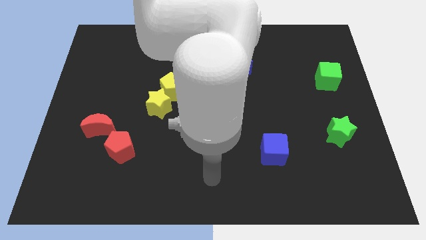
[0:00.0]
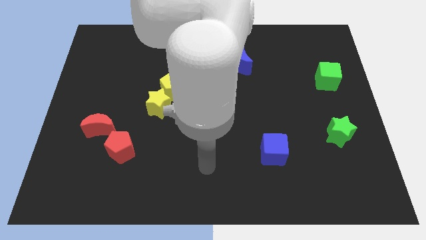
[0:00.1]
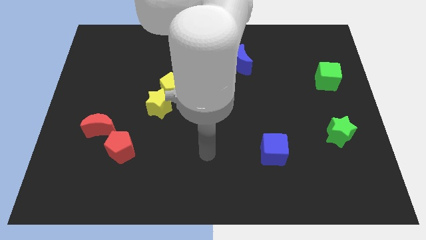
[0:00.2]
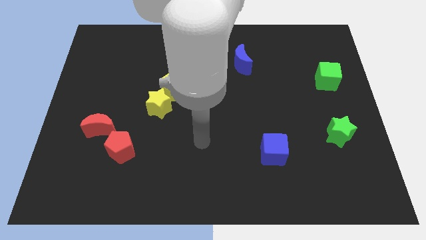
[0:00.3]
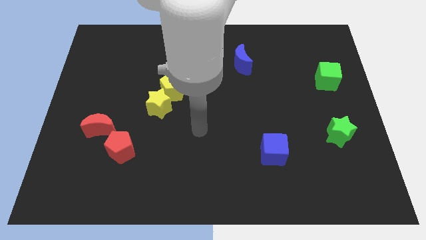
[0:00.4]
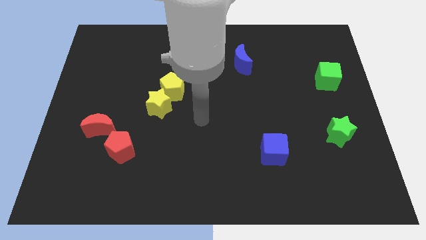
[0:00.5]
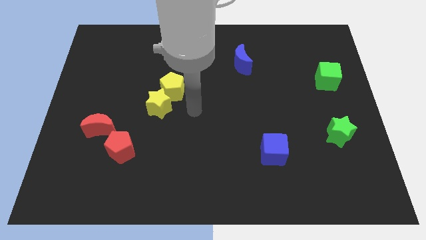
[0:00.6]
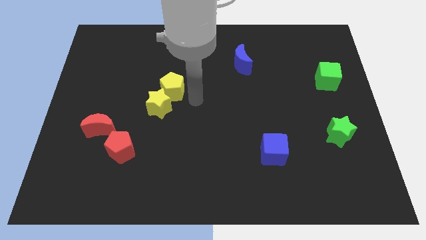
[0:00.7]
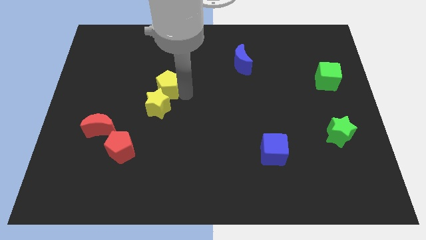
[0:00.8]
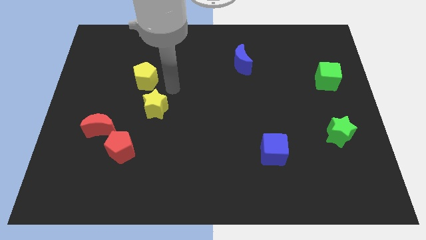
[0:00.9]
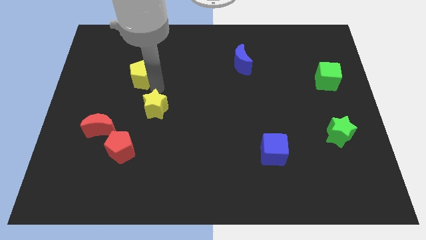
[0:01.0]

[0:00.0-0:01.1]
separate the yellow star from the yellow pentagon

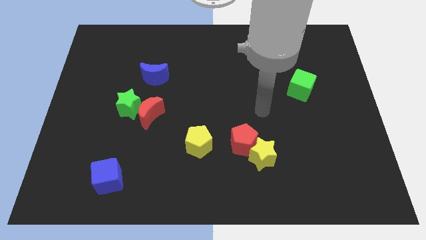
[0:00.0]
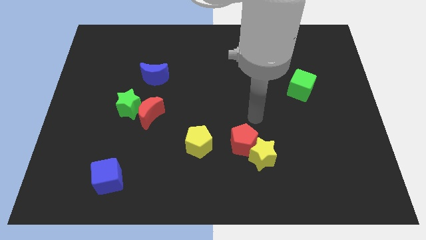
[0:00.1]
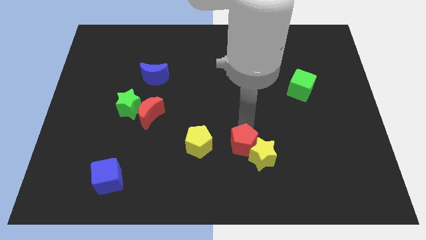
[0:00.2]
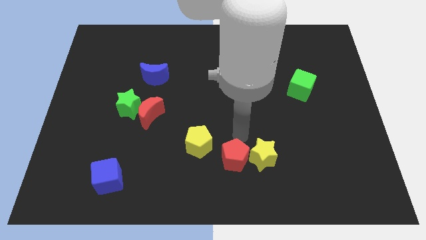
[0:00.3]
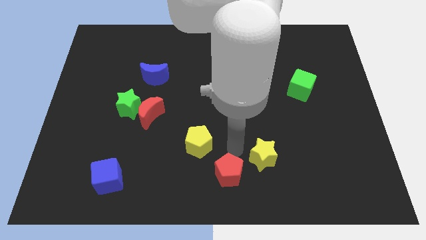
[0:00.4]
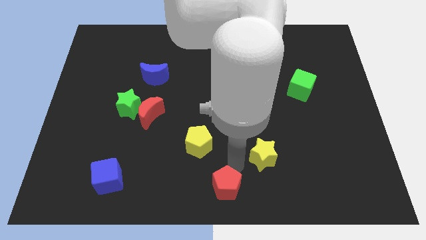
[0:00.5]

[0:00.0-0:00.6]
separate the yellow star from the red pentagon

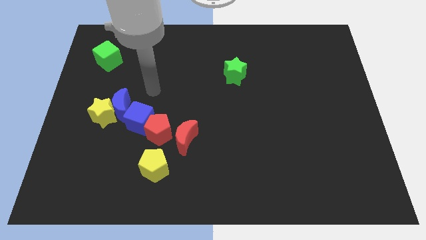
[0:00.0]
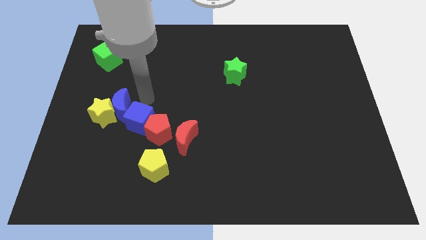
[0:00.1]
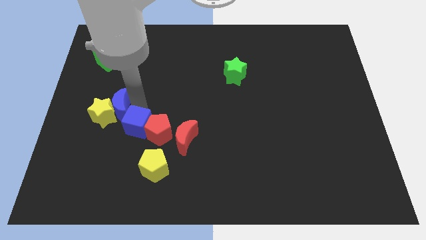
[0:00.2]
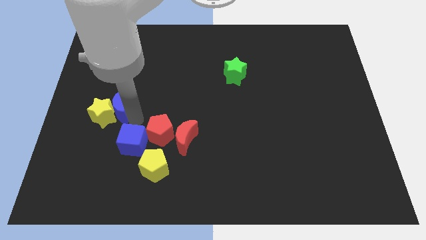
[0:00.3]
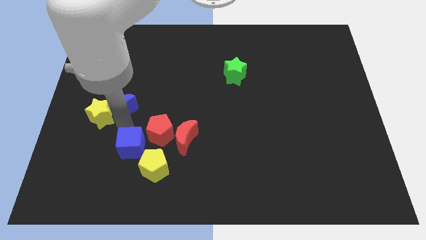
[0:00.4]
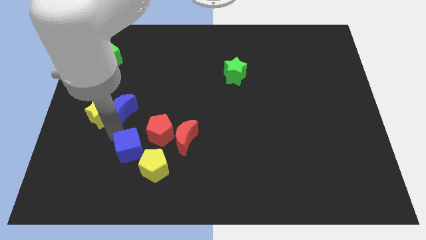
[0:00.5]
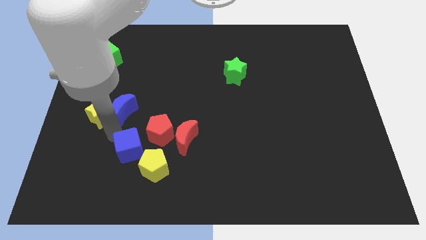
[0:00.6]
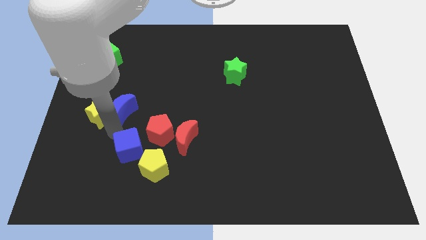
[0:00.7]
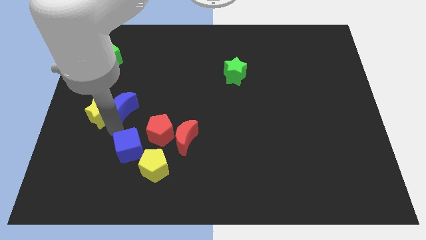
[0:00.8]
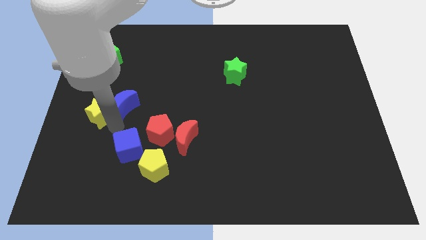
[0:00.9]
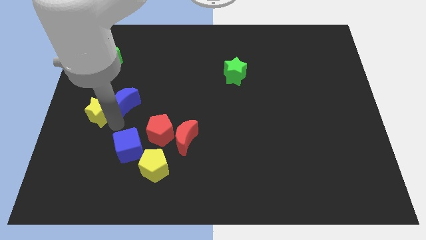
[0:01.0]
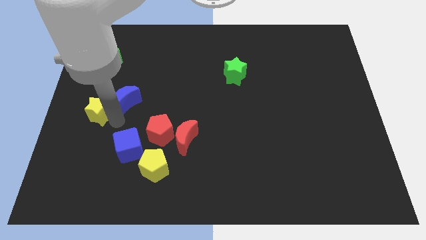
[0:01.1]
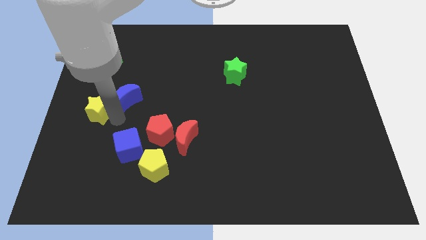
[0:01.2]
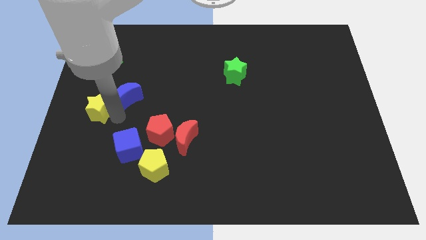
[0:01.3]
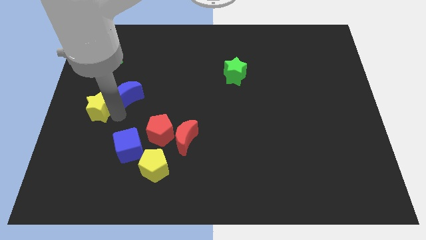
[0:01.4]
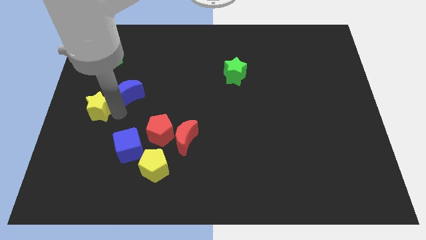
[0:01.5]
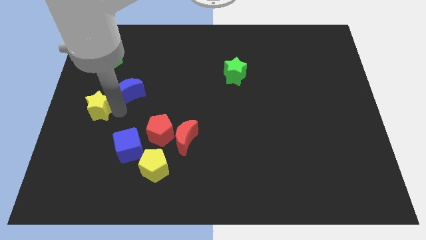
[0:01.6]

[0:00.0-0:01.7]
separate the blue moon from the yellow star and blue cube

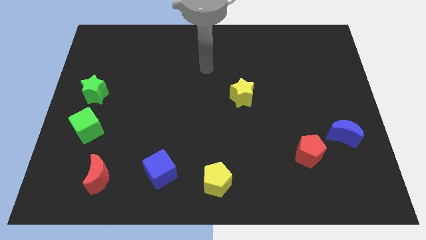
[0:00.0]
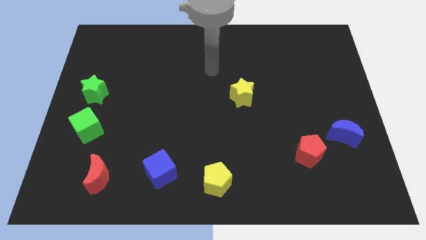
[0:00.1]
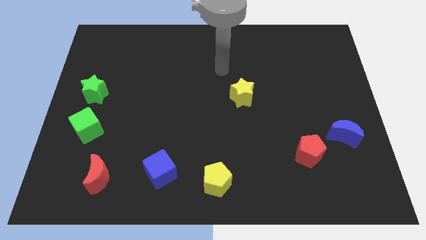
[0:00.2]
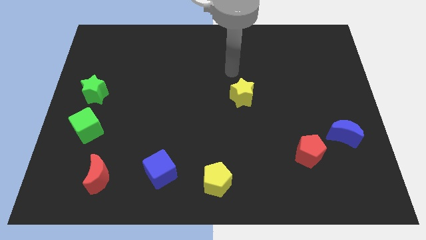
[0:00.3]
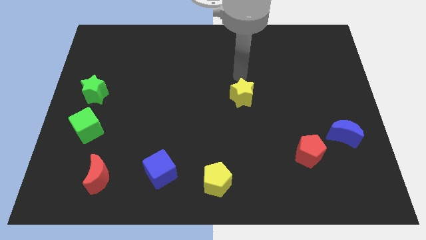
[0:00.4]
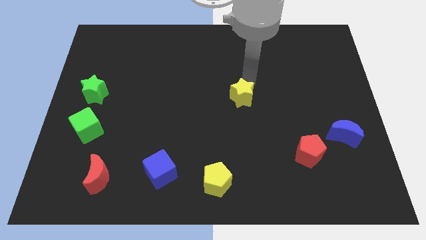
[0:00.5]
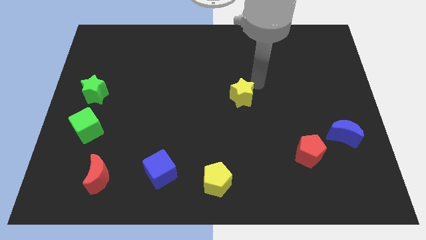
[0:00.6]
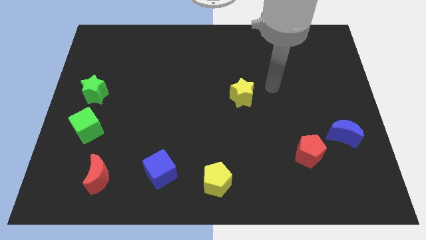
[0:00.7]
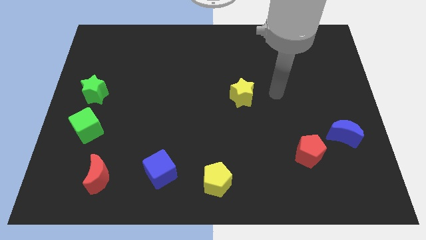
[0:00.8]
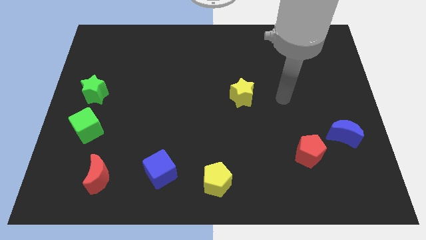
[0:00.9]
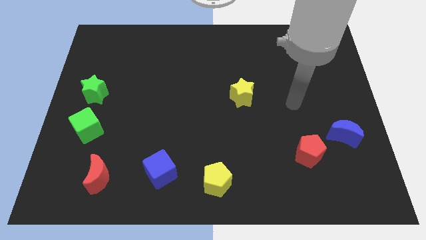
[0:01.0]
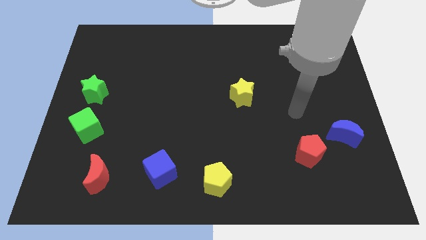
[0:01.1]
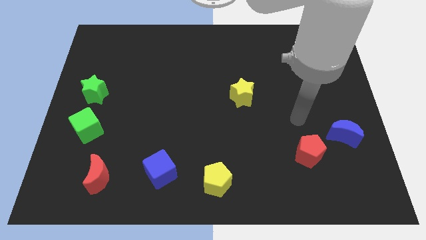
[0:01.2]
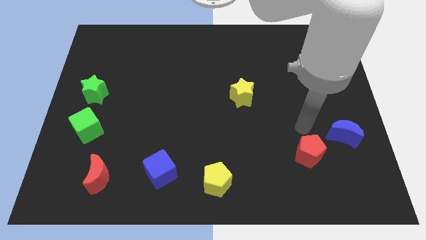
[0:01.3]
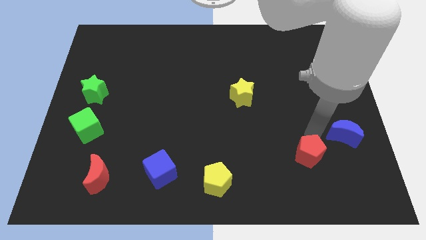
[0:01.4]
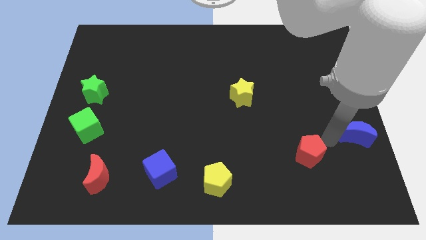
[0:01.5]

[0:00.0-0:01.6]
pull the red pentagon apart from the blue moon

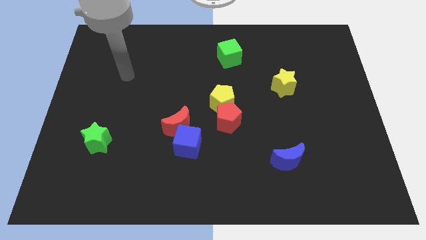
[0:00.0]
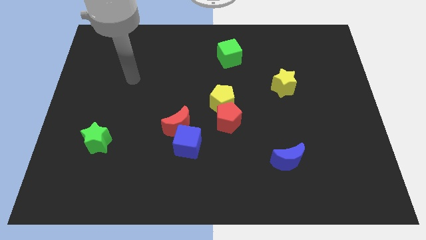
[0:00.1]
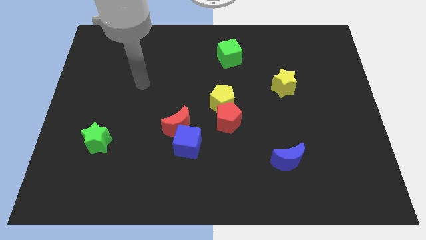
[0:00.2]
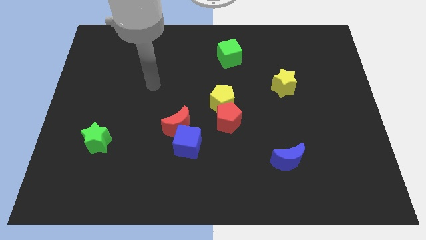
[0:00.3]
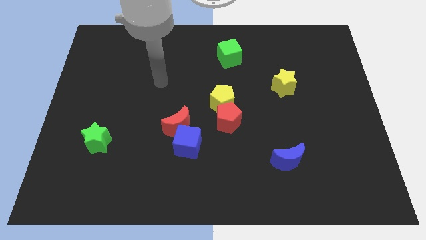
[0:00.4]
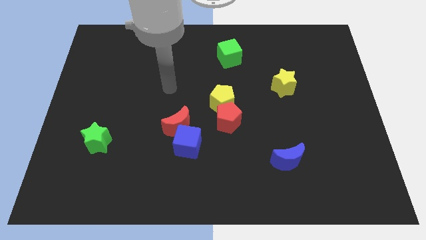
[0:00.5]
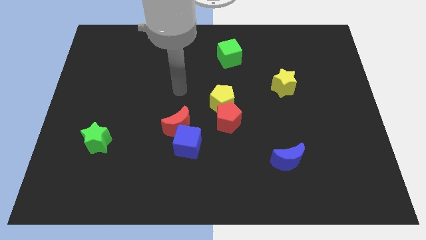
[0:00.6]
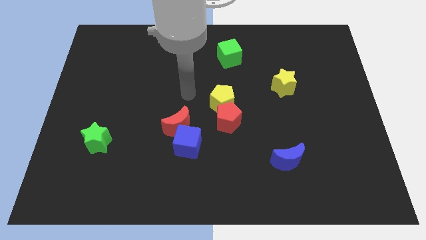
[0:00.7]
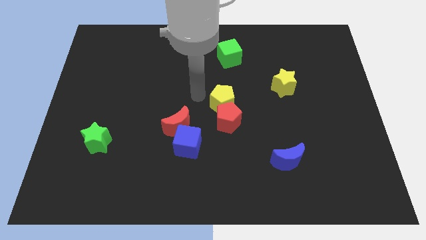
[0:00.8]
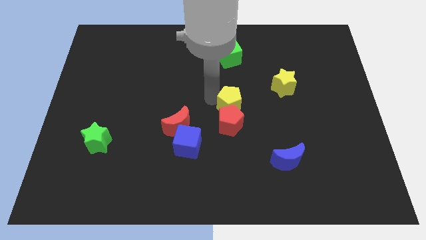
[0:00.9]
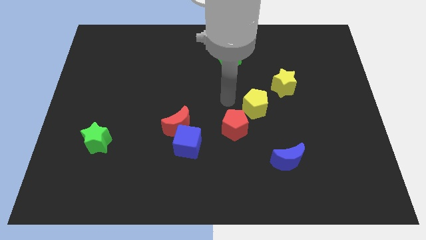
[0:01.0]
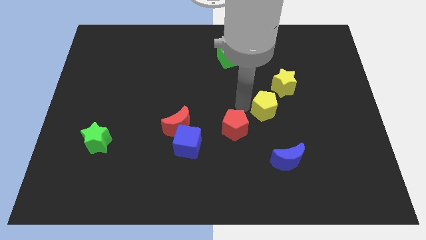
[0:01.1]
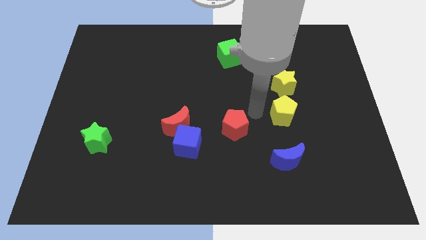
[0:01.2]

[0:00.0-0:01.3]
pull the red pentagon apart from the yellow pentagon

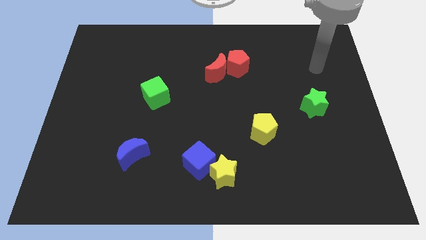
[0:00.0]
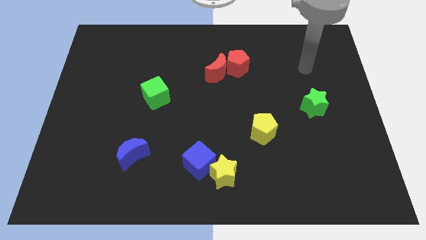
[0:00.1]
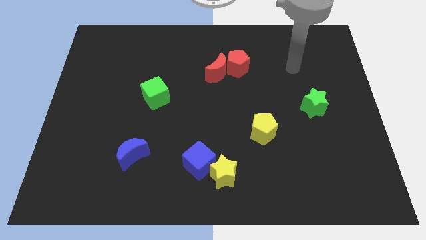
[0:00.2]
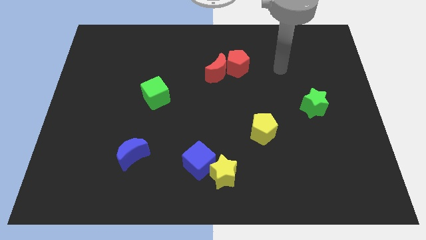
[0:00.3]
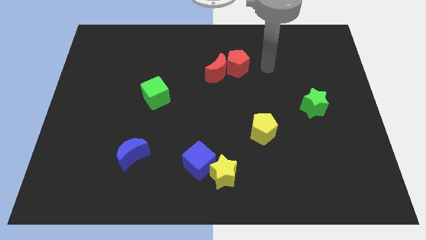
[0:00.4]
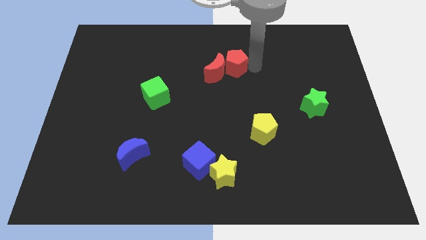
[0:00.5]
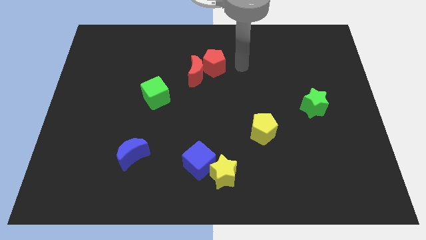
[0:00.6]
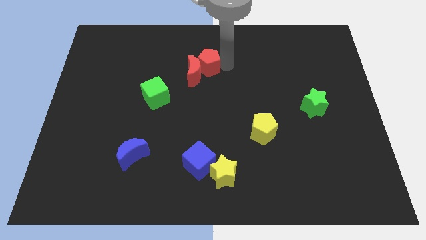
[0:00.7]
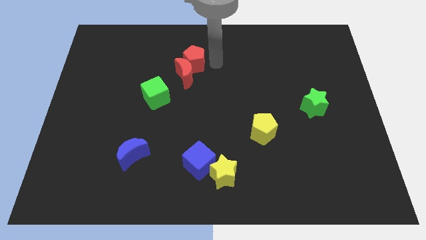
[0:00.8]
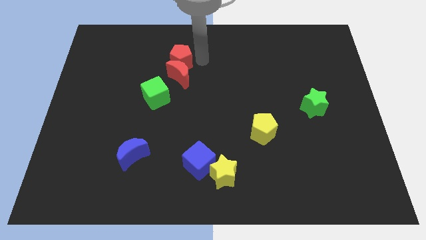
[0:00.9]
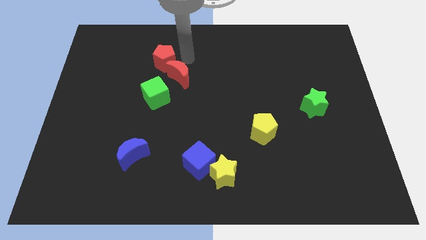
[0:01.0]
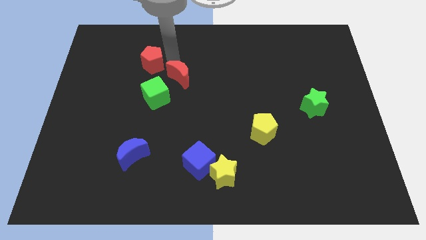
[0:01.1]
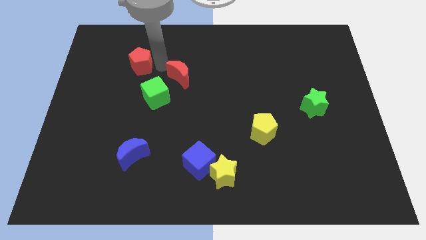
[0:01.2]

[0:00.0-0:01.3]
pull the red moon apart from the red pentagon

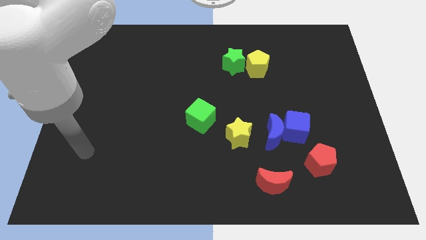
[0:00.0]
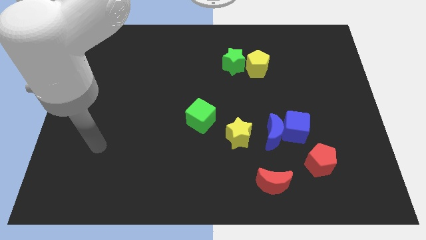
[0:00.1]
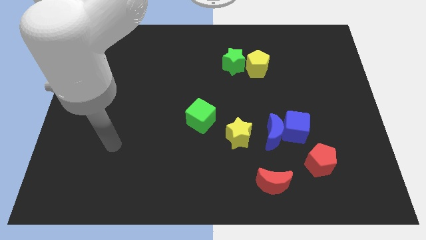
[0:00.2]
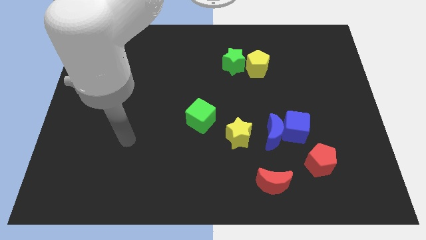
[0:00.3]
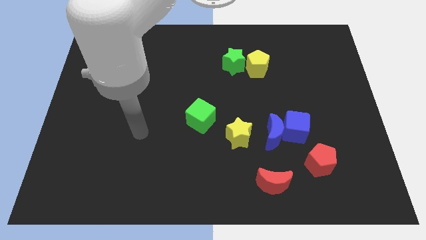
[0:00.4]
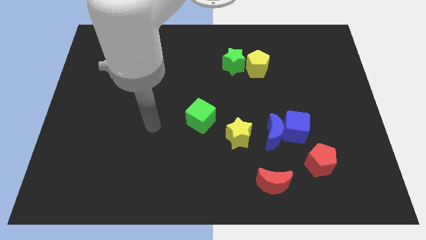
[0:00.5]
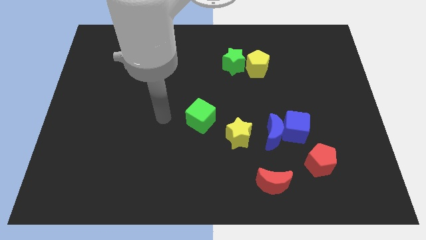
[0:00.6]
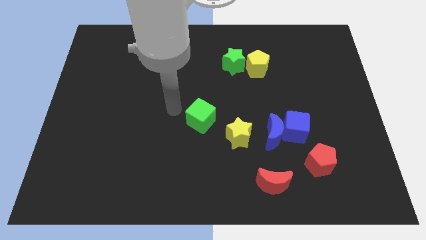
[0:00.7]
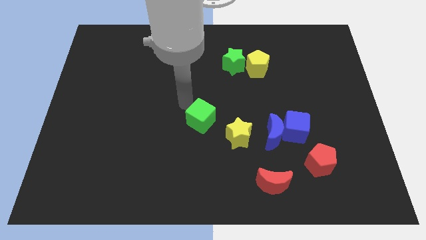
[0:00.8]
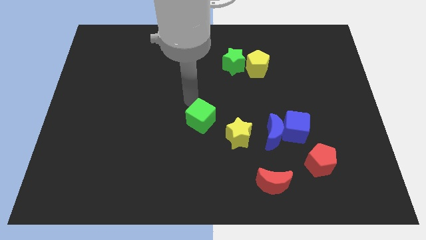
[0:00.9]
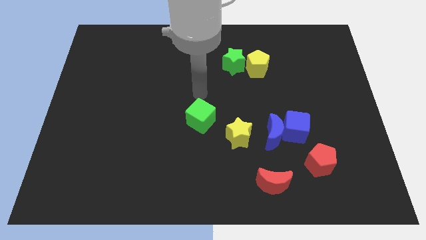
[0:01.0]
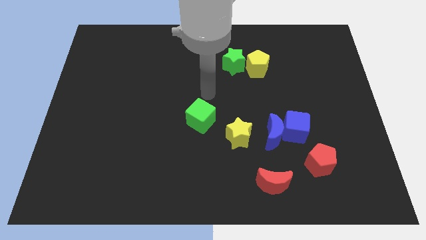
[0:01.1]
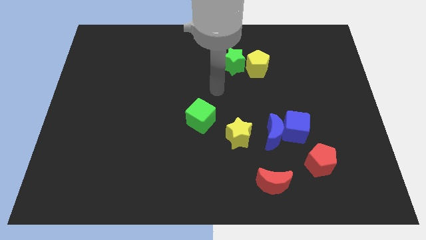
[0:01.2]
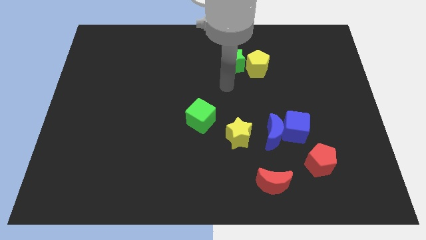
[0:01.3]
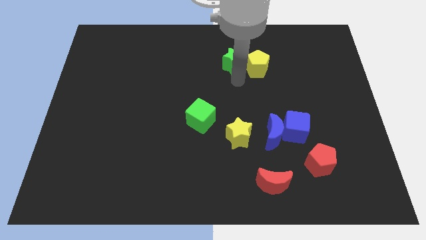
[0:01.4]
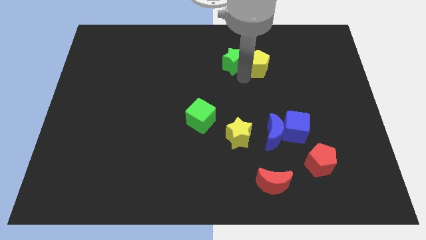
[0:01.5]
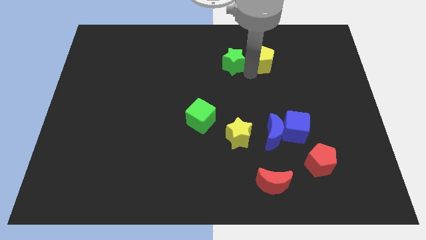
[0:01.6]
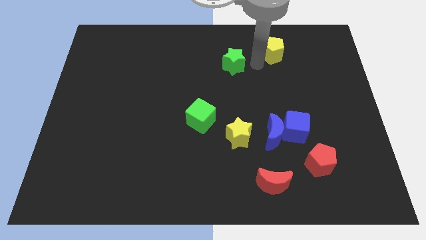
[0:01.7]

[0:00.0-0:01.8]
separate the green star from the yellow pentagon
